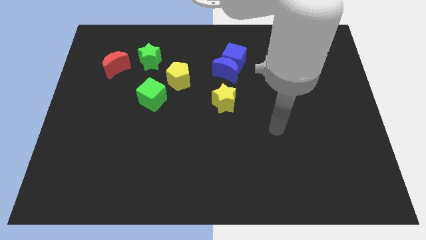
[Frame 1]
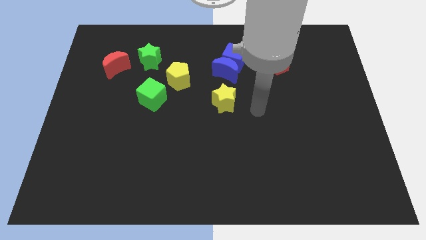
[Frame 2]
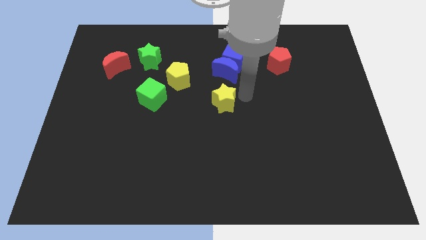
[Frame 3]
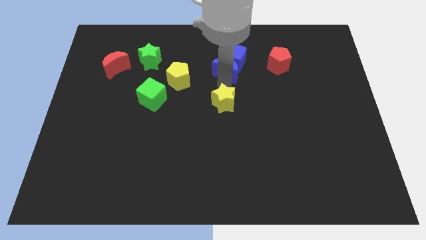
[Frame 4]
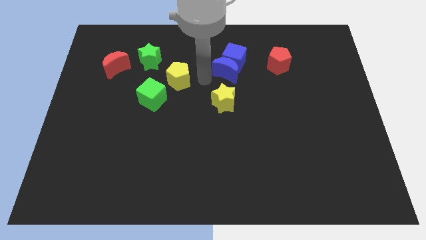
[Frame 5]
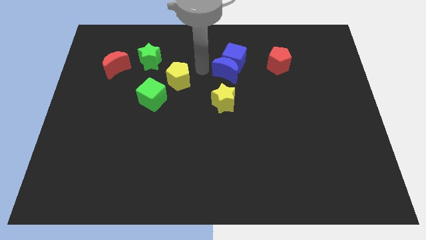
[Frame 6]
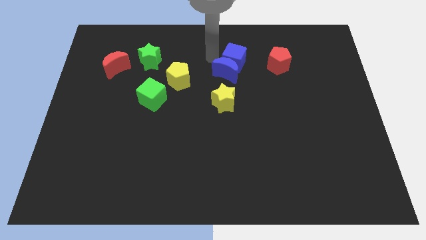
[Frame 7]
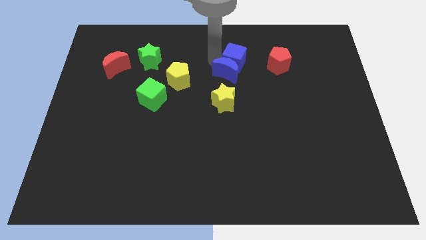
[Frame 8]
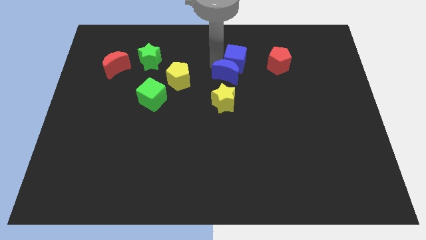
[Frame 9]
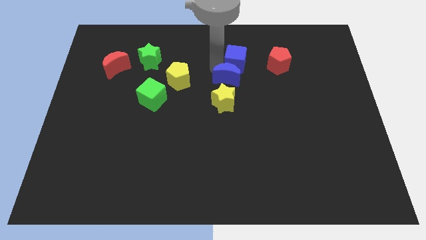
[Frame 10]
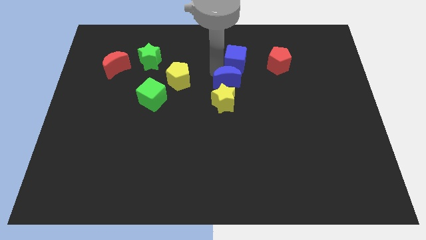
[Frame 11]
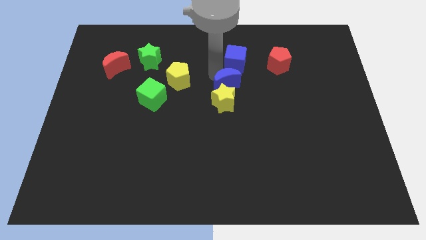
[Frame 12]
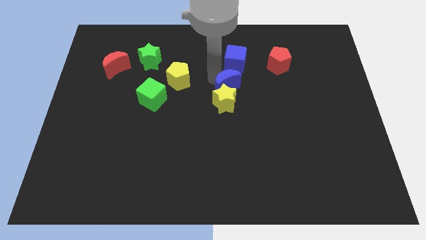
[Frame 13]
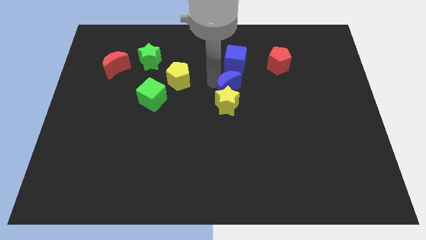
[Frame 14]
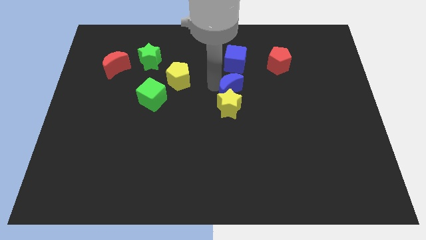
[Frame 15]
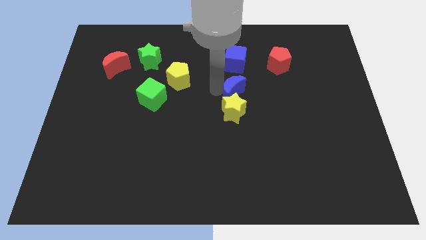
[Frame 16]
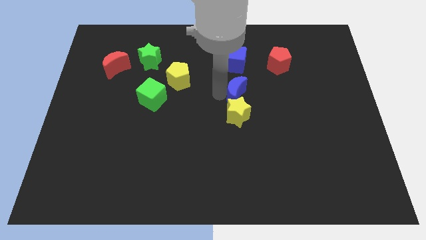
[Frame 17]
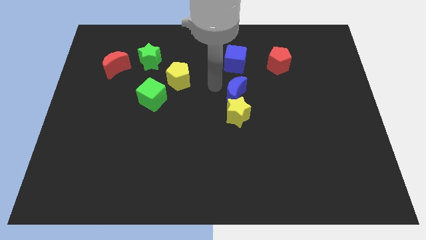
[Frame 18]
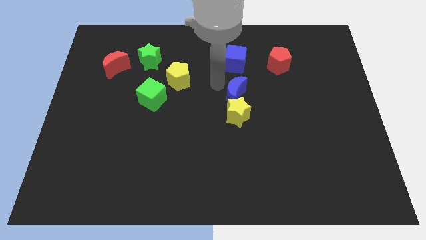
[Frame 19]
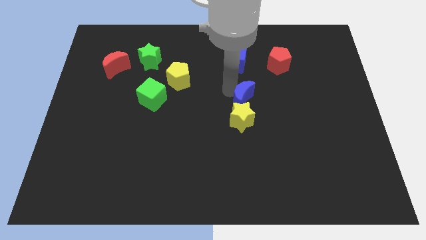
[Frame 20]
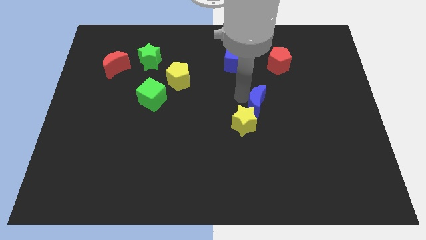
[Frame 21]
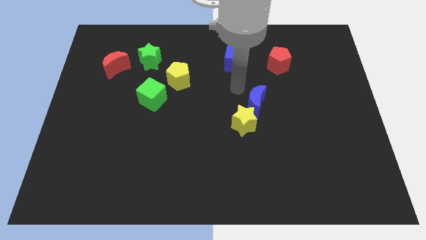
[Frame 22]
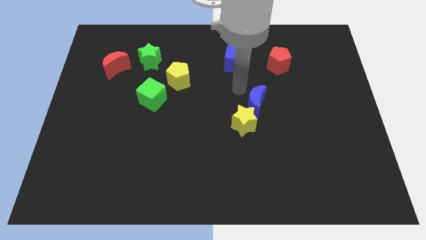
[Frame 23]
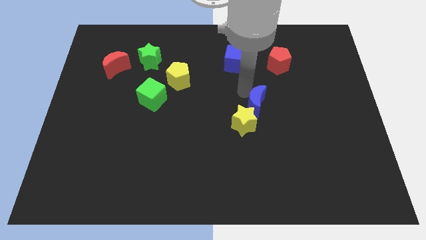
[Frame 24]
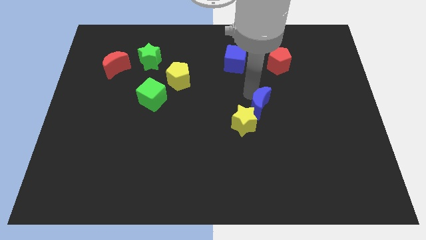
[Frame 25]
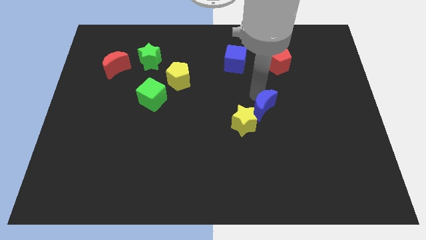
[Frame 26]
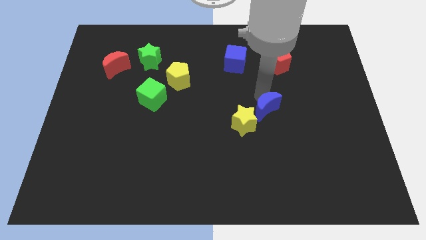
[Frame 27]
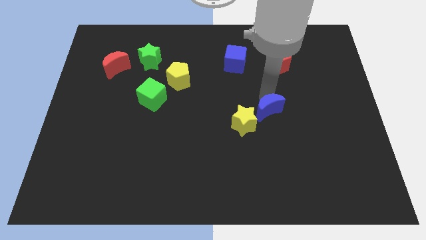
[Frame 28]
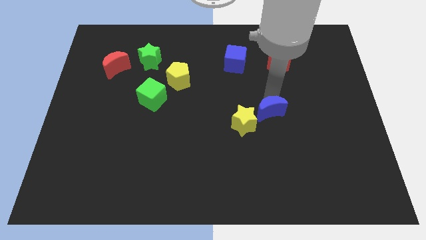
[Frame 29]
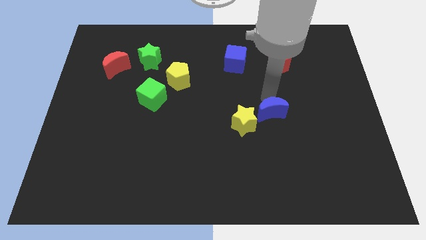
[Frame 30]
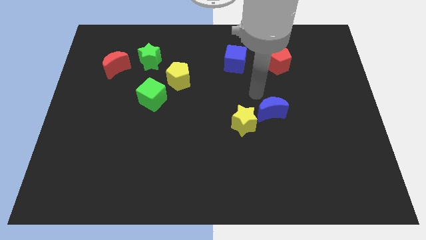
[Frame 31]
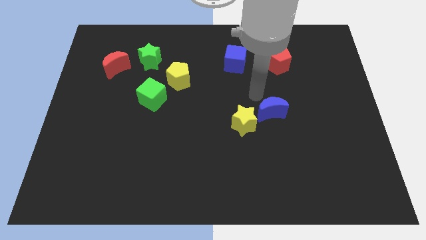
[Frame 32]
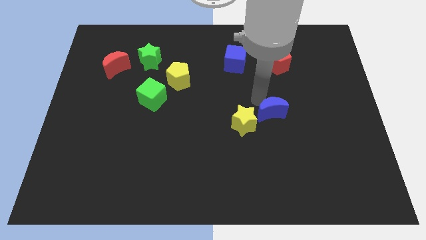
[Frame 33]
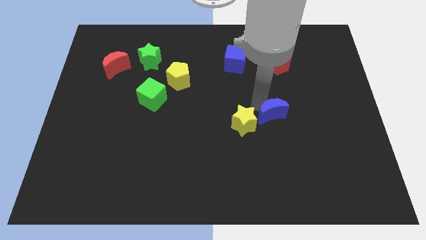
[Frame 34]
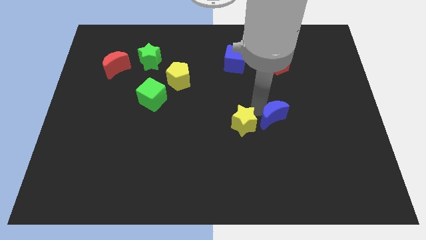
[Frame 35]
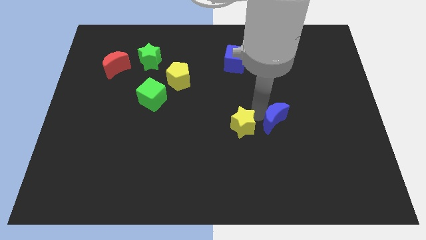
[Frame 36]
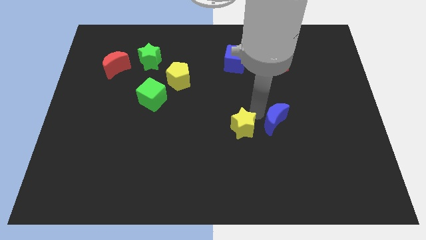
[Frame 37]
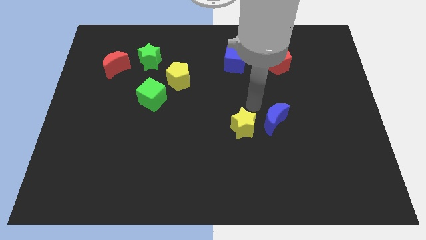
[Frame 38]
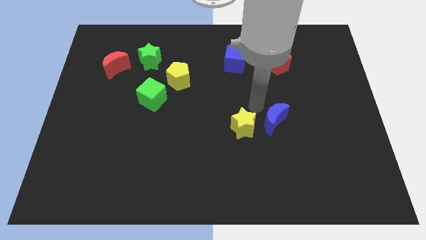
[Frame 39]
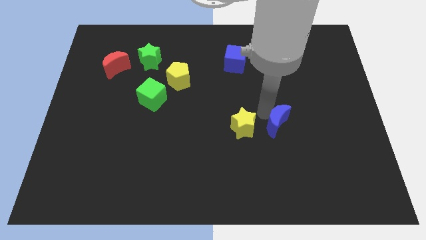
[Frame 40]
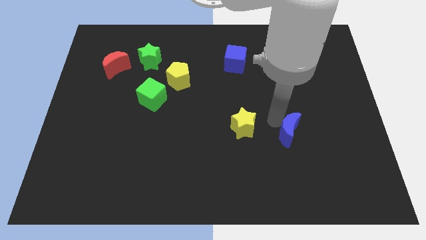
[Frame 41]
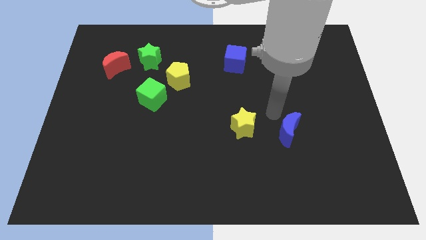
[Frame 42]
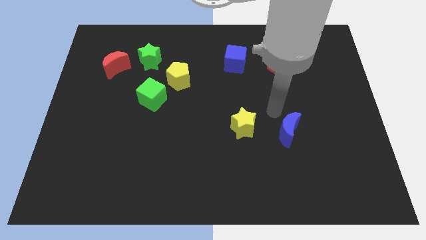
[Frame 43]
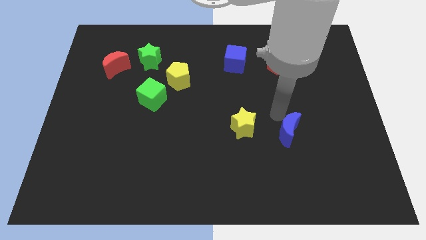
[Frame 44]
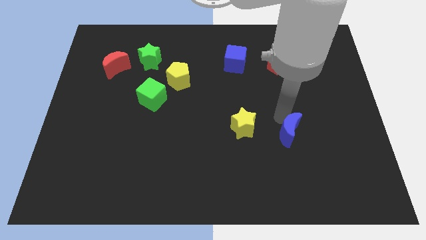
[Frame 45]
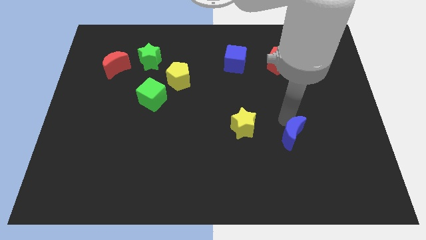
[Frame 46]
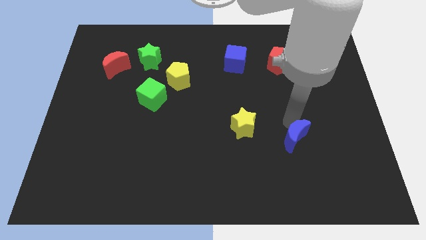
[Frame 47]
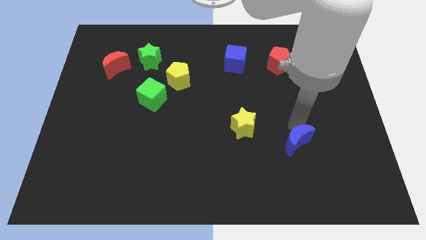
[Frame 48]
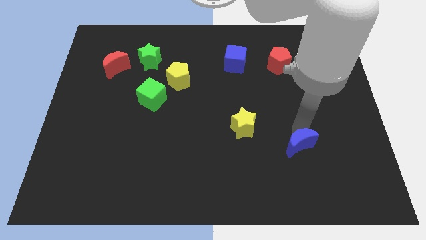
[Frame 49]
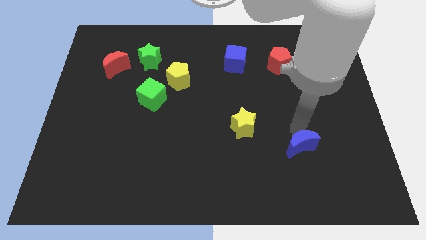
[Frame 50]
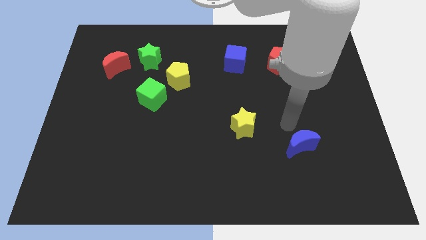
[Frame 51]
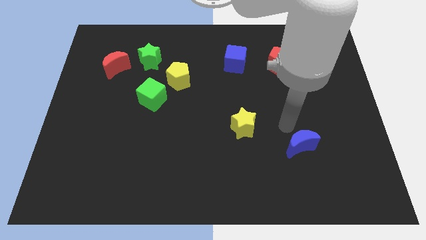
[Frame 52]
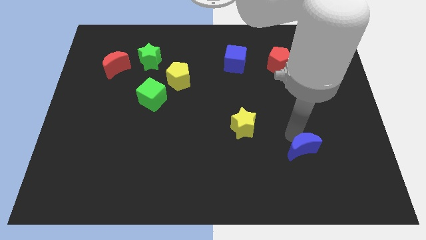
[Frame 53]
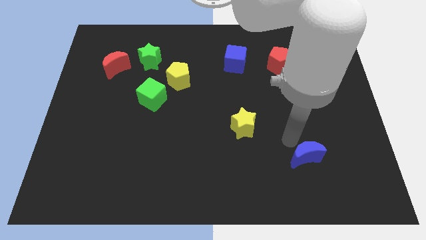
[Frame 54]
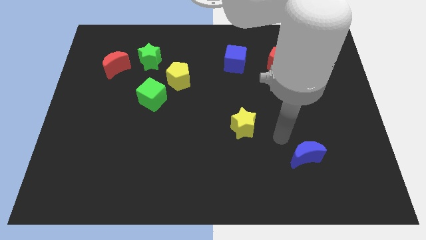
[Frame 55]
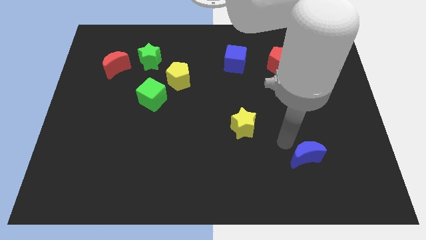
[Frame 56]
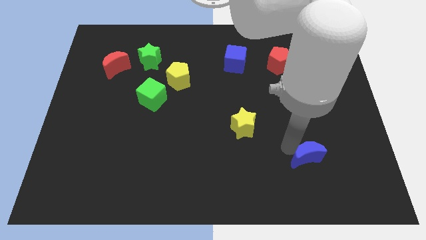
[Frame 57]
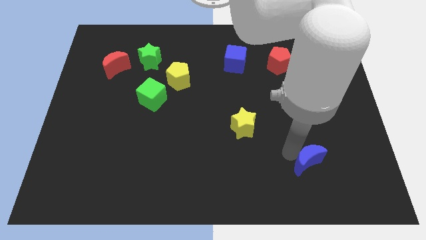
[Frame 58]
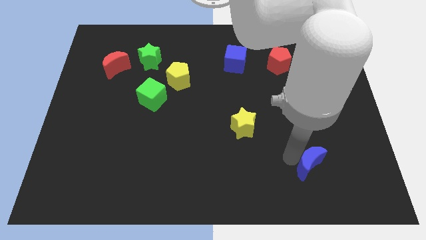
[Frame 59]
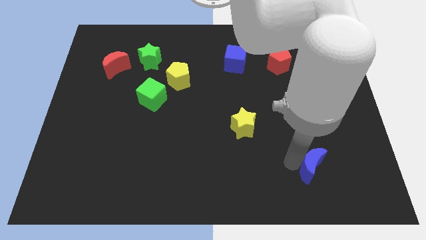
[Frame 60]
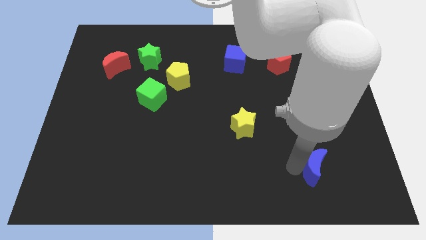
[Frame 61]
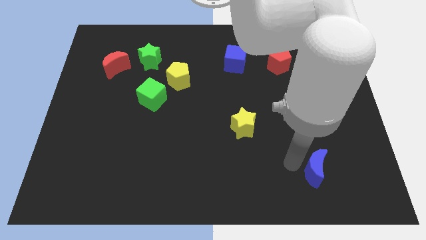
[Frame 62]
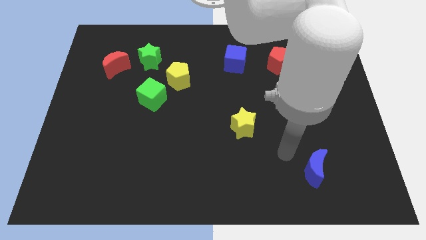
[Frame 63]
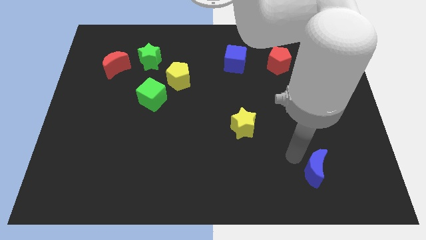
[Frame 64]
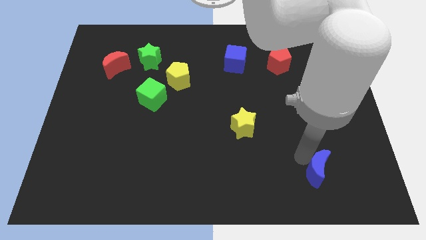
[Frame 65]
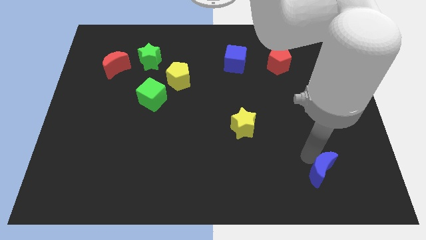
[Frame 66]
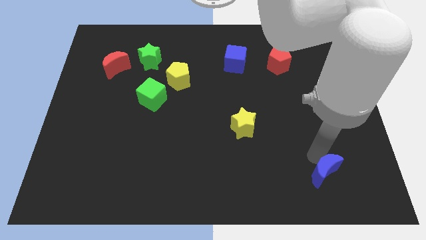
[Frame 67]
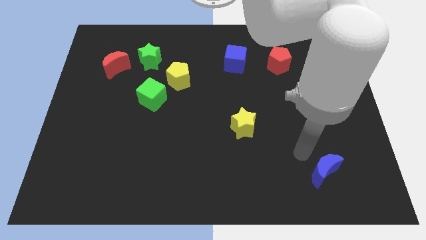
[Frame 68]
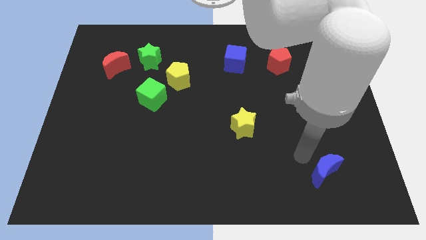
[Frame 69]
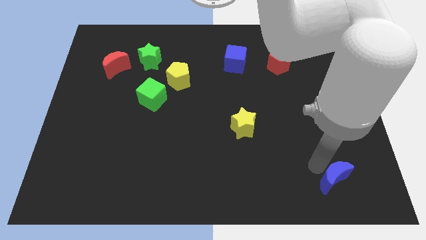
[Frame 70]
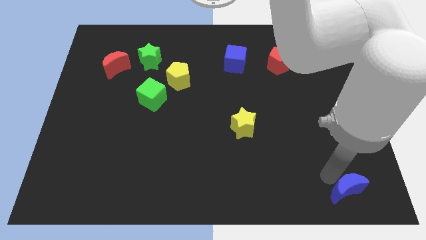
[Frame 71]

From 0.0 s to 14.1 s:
push the blue moon to the bottom right of the board
